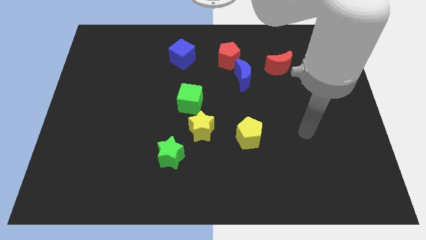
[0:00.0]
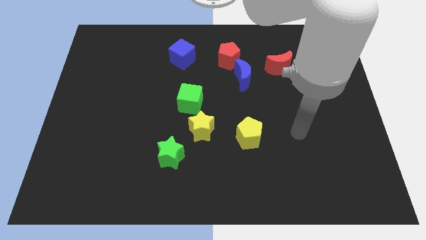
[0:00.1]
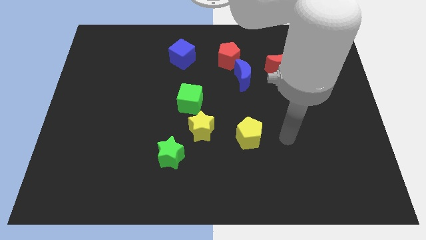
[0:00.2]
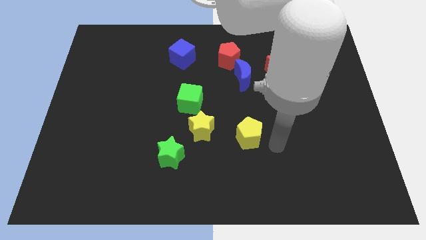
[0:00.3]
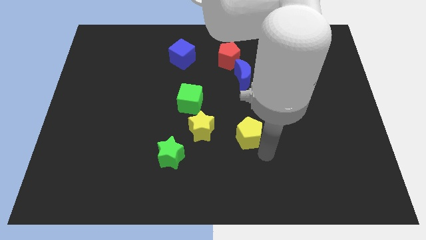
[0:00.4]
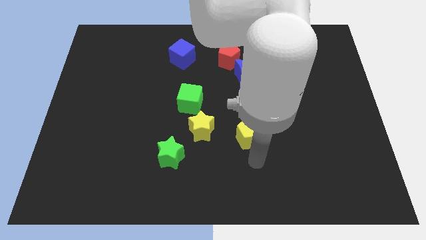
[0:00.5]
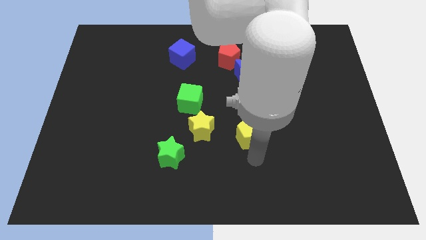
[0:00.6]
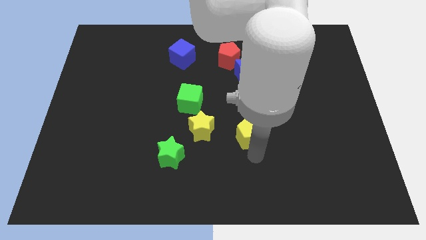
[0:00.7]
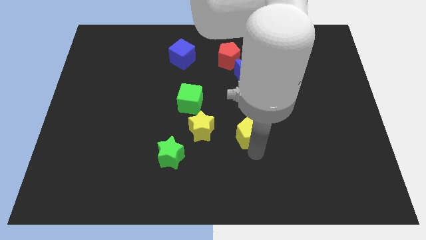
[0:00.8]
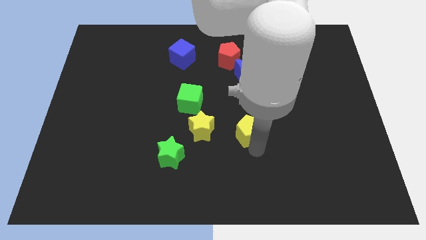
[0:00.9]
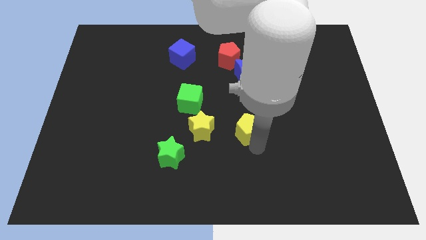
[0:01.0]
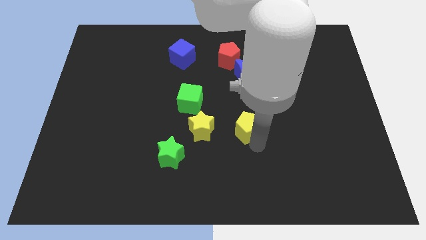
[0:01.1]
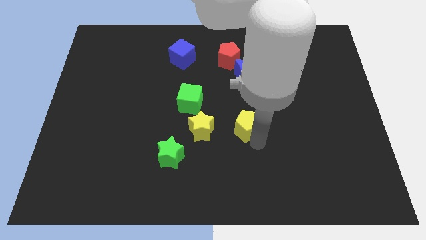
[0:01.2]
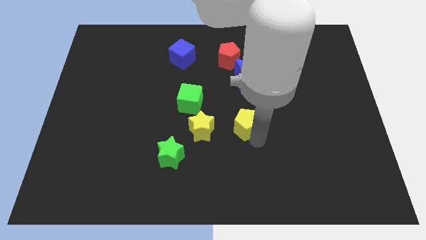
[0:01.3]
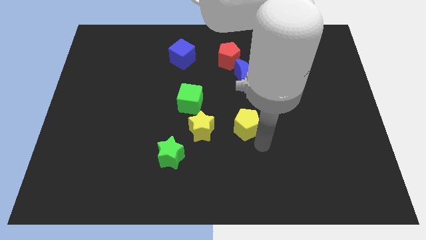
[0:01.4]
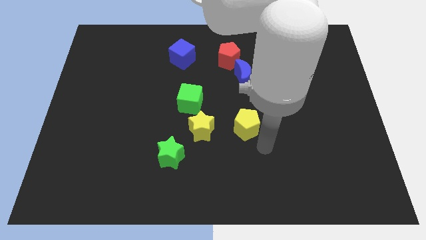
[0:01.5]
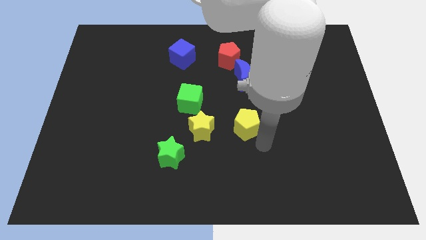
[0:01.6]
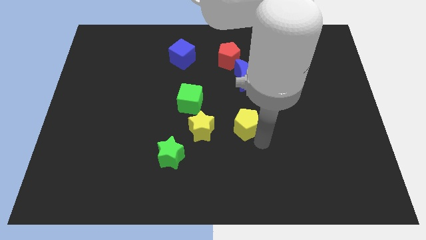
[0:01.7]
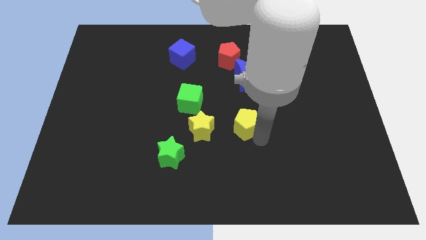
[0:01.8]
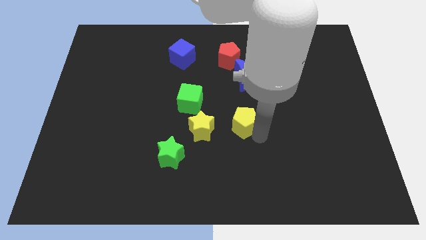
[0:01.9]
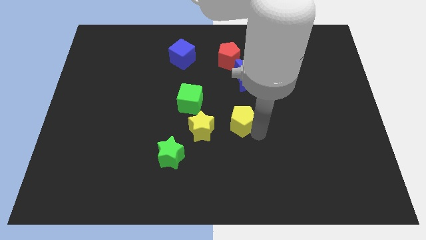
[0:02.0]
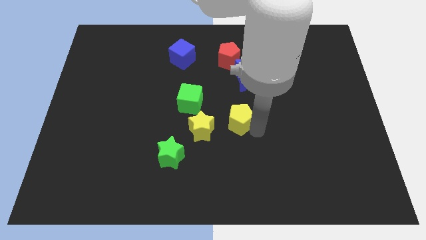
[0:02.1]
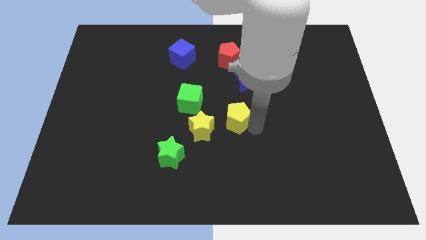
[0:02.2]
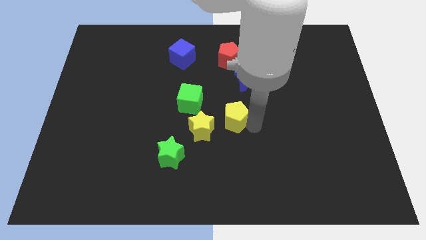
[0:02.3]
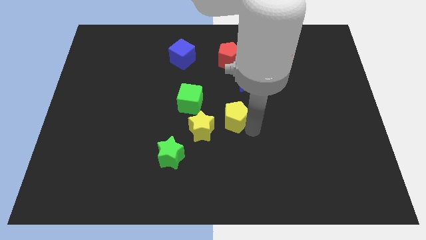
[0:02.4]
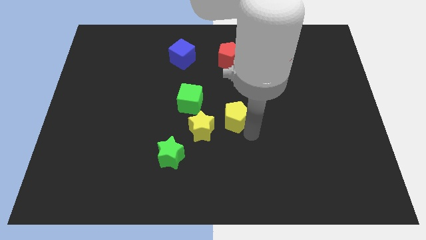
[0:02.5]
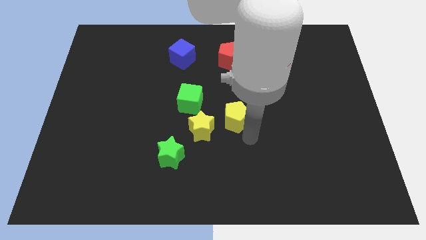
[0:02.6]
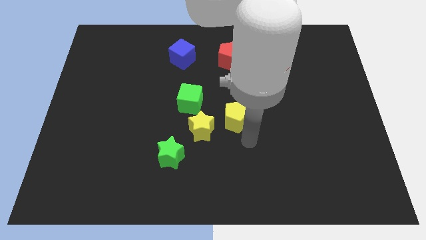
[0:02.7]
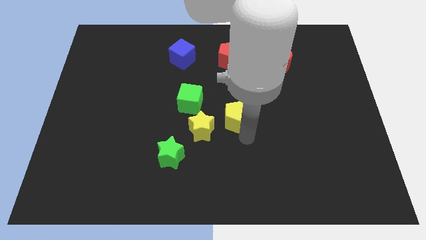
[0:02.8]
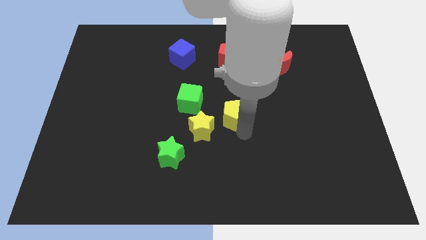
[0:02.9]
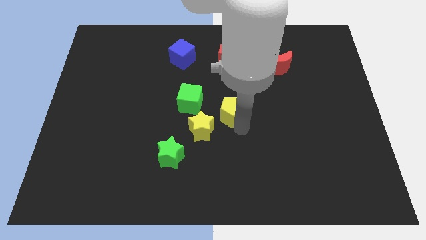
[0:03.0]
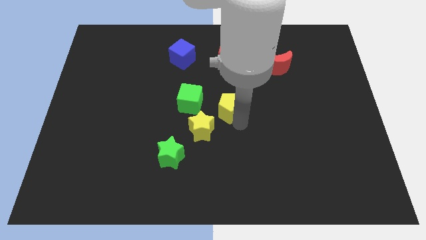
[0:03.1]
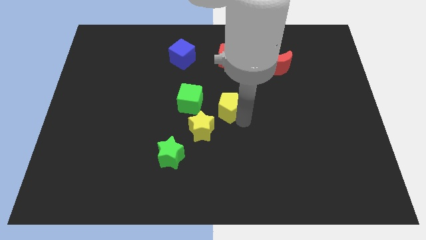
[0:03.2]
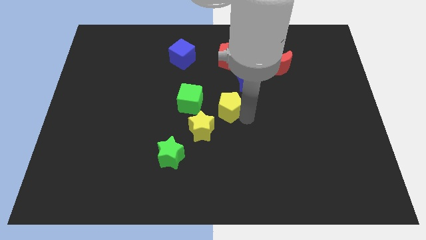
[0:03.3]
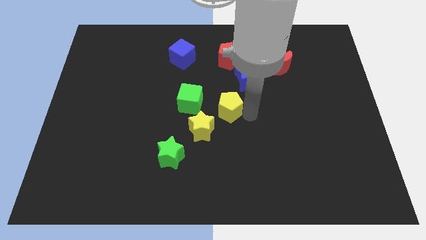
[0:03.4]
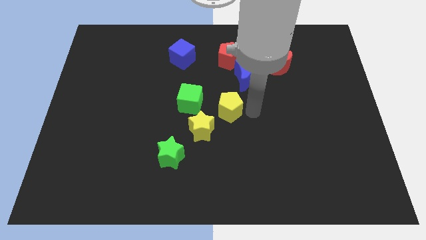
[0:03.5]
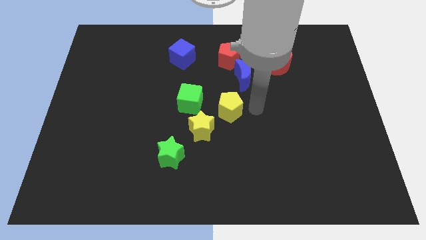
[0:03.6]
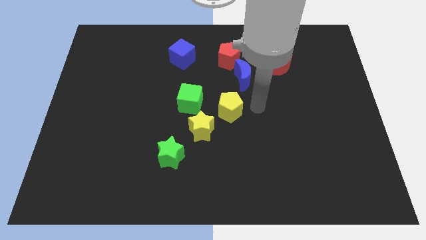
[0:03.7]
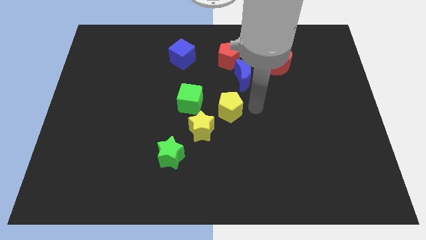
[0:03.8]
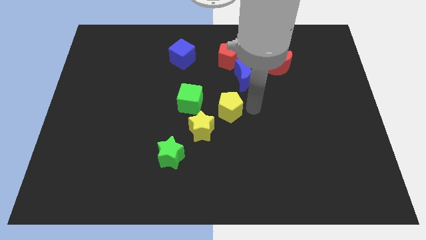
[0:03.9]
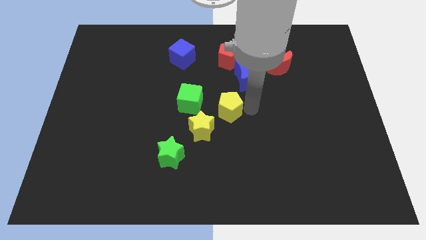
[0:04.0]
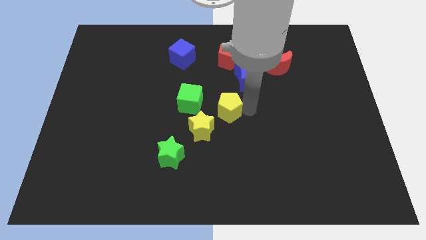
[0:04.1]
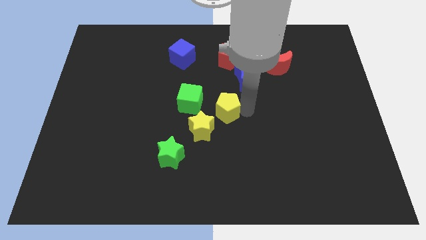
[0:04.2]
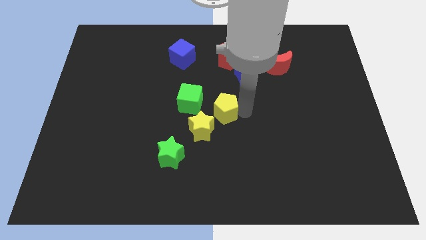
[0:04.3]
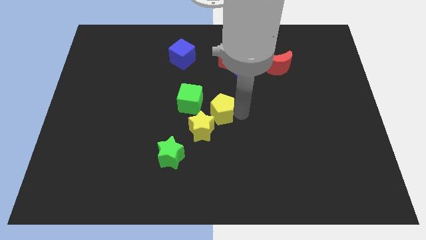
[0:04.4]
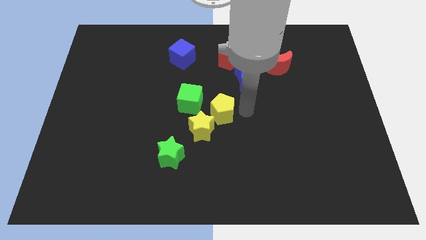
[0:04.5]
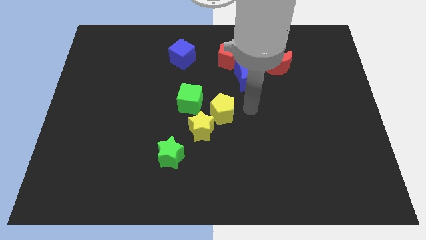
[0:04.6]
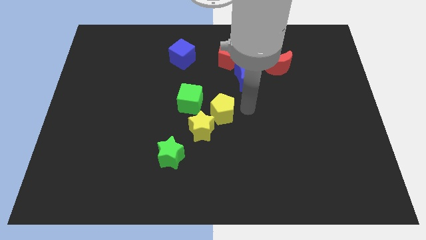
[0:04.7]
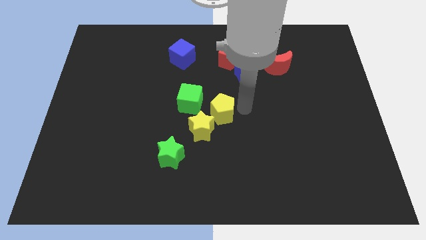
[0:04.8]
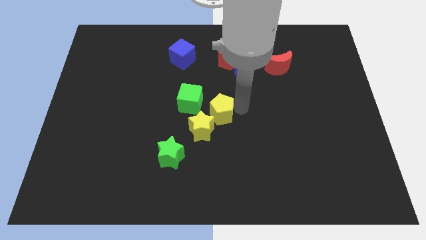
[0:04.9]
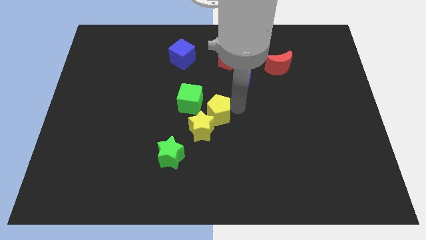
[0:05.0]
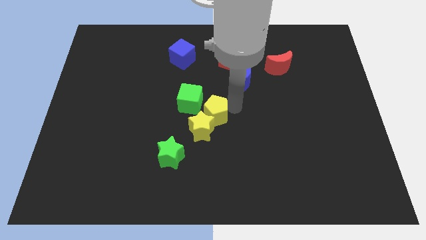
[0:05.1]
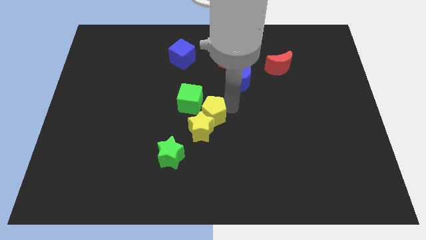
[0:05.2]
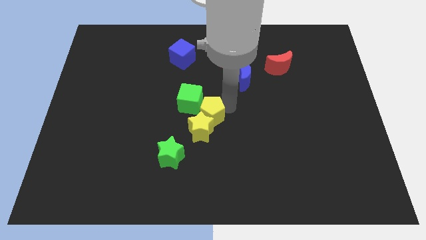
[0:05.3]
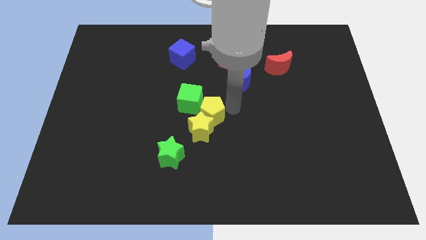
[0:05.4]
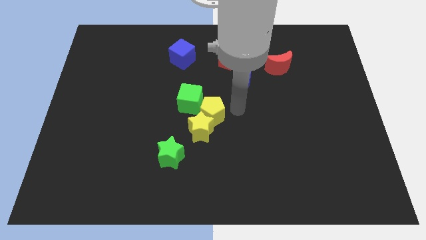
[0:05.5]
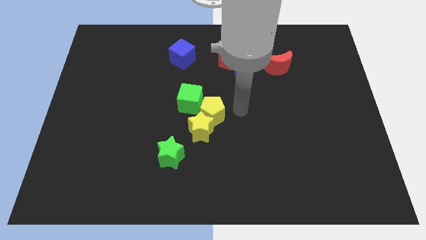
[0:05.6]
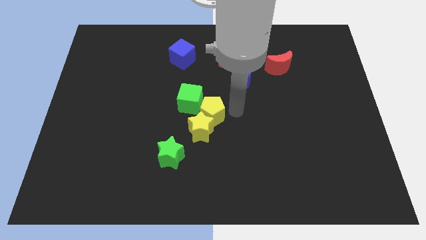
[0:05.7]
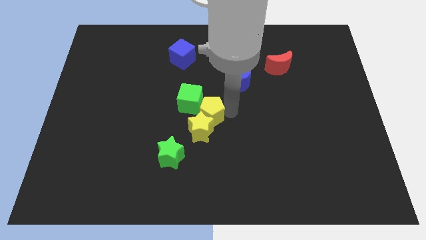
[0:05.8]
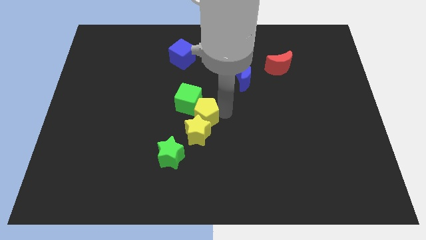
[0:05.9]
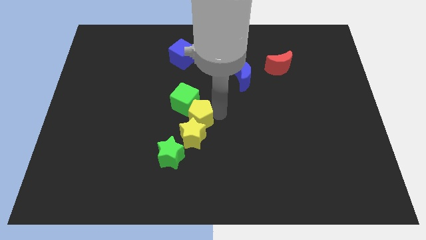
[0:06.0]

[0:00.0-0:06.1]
put the yellow pentagon to the top left of the yellow star

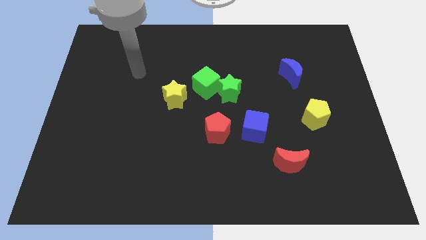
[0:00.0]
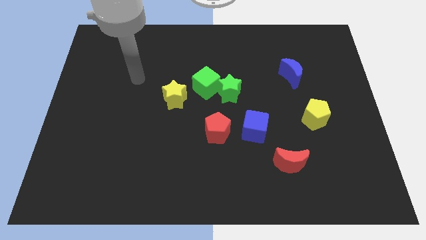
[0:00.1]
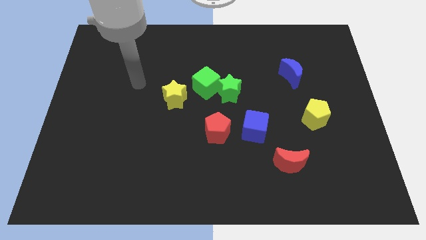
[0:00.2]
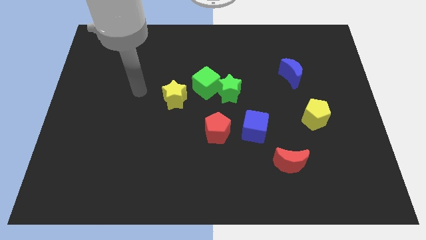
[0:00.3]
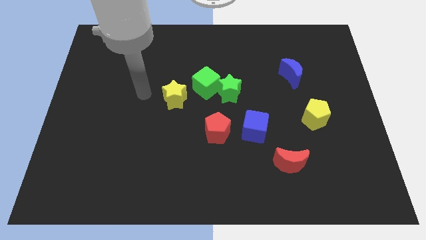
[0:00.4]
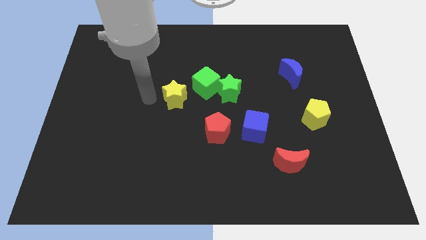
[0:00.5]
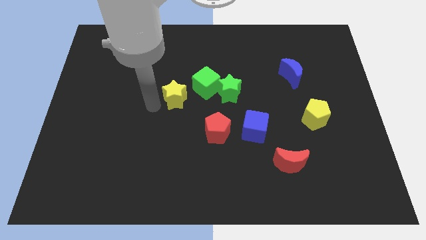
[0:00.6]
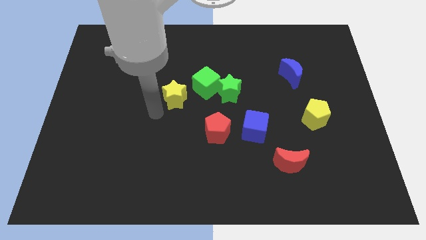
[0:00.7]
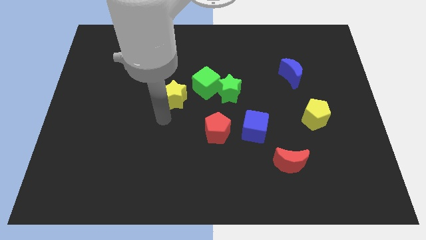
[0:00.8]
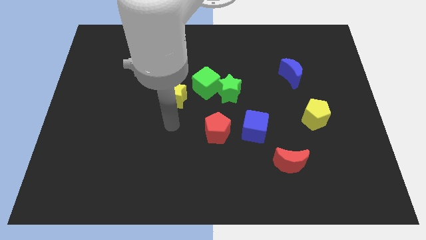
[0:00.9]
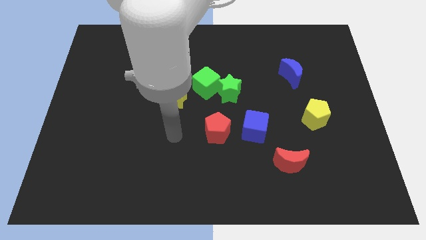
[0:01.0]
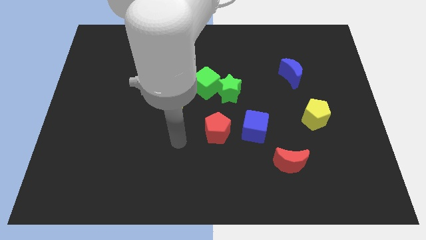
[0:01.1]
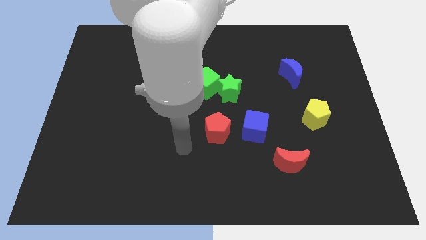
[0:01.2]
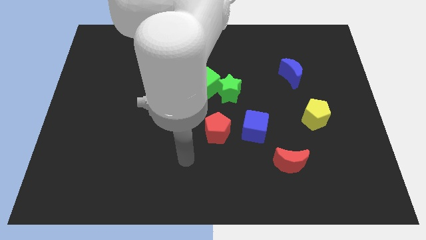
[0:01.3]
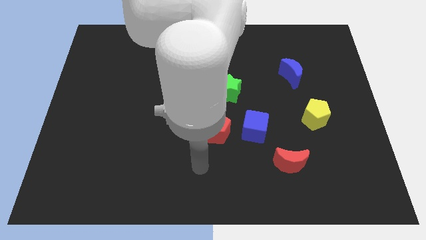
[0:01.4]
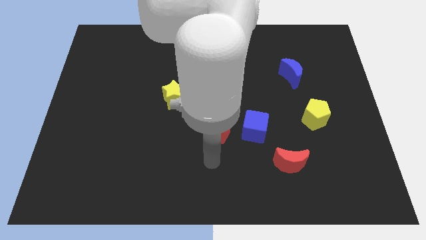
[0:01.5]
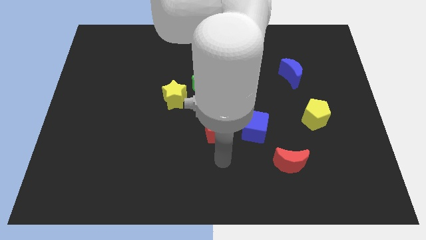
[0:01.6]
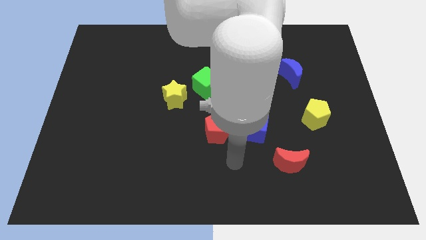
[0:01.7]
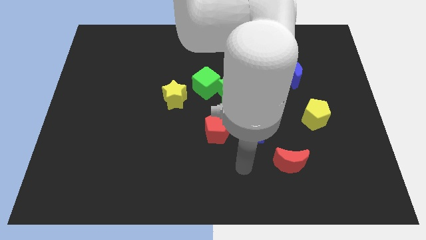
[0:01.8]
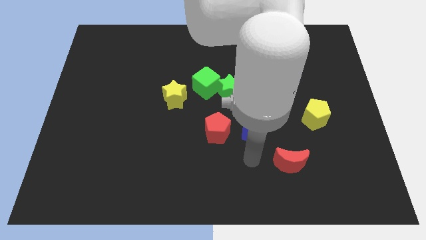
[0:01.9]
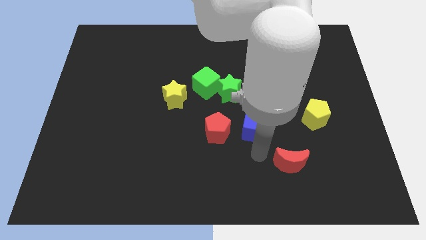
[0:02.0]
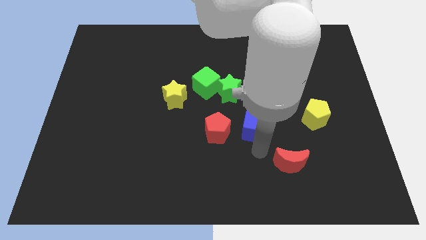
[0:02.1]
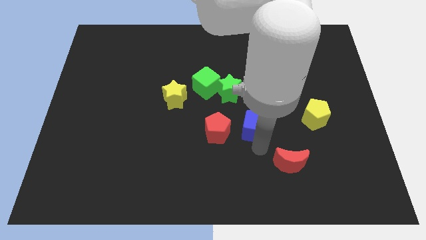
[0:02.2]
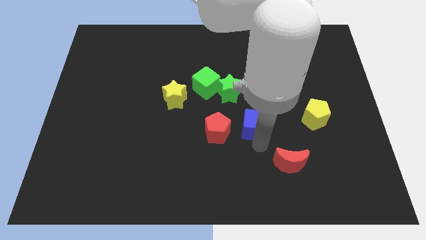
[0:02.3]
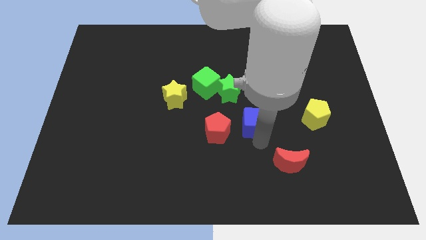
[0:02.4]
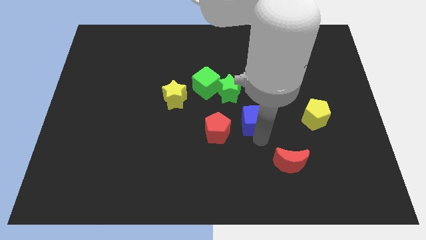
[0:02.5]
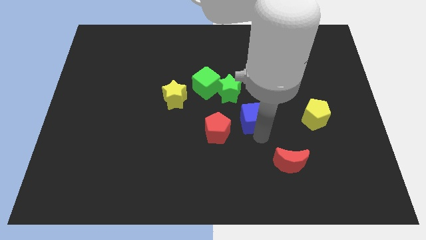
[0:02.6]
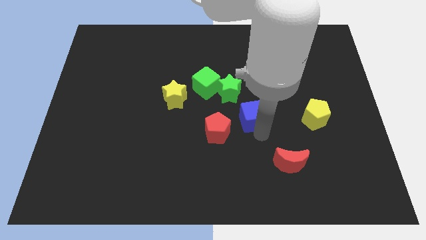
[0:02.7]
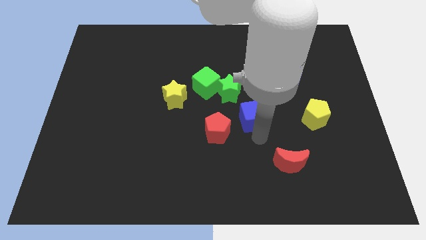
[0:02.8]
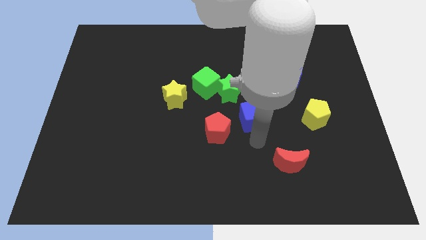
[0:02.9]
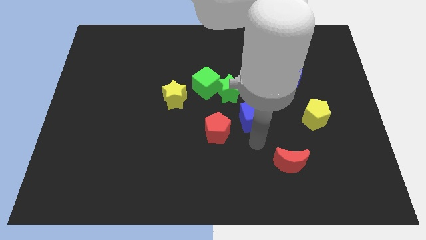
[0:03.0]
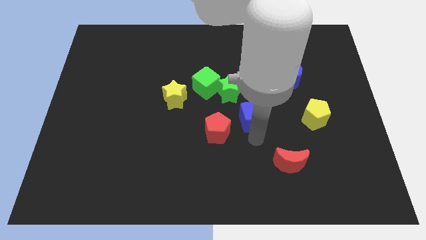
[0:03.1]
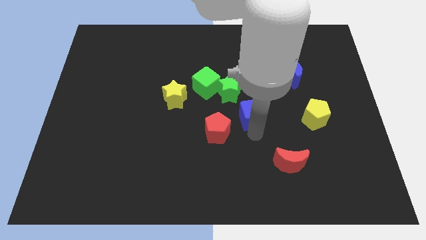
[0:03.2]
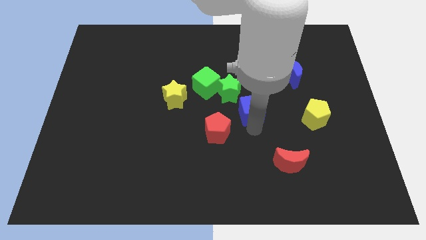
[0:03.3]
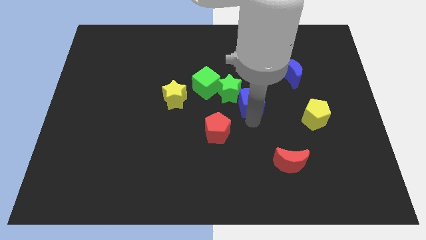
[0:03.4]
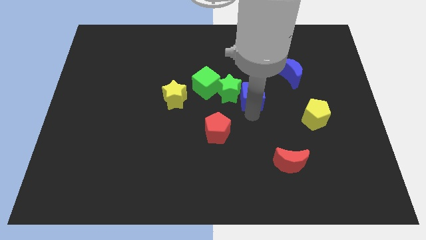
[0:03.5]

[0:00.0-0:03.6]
push the blue cube to the right of the green cube
